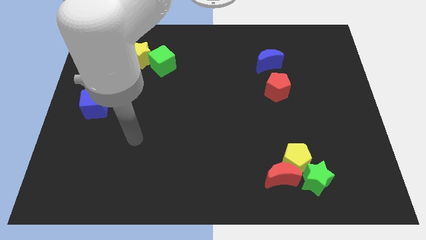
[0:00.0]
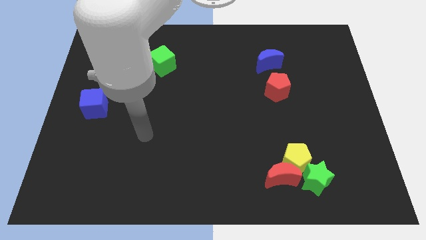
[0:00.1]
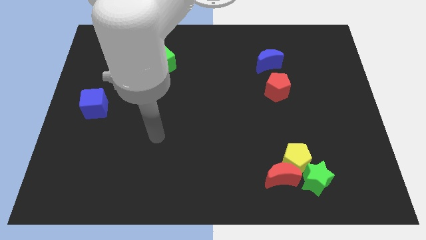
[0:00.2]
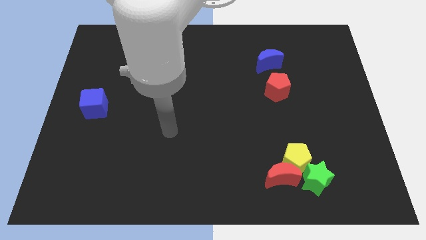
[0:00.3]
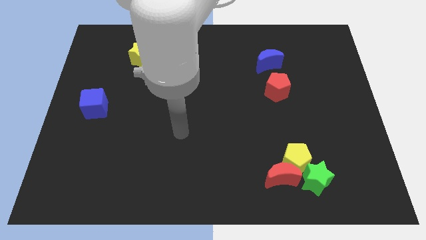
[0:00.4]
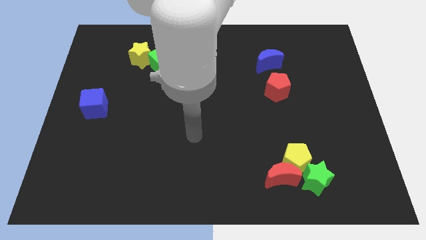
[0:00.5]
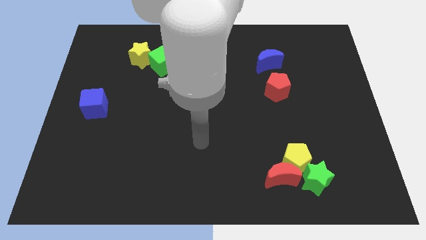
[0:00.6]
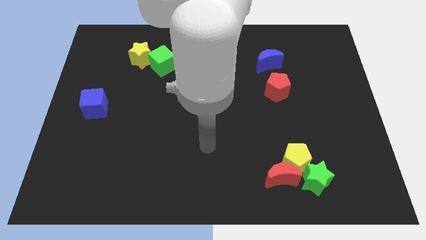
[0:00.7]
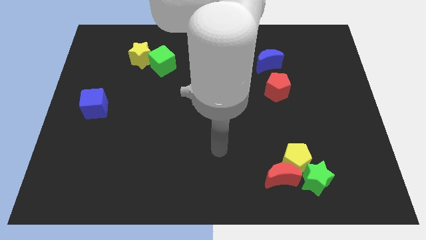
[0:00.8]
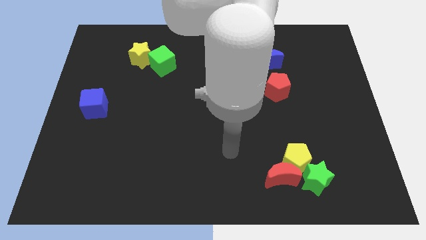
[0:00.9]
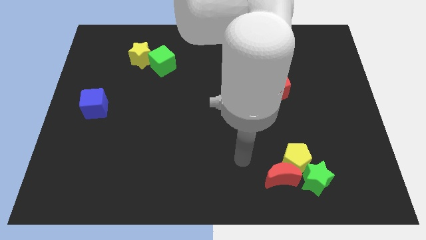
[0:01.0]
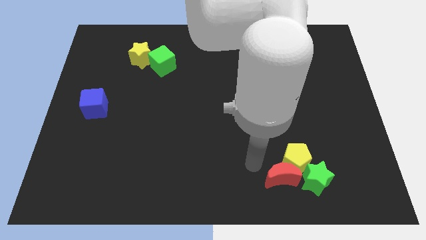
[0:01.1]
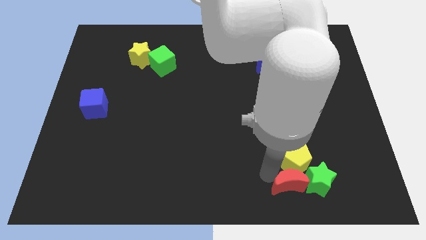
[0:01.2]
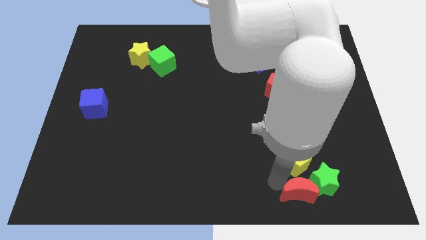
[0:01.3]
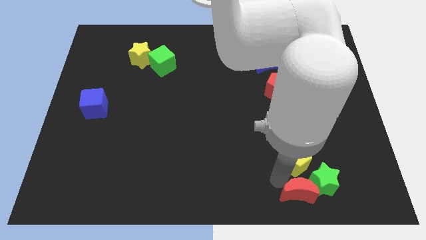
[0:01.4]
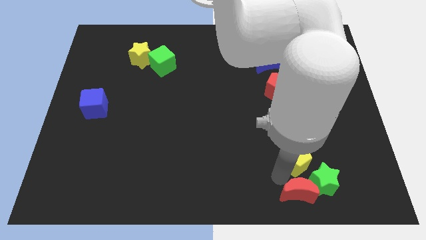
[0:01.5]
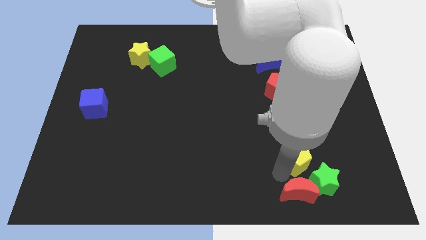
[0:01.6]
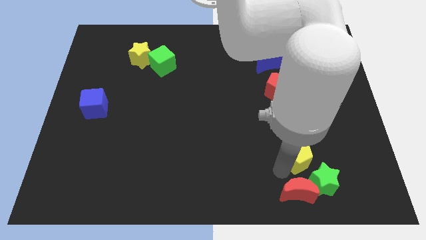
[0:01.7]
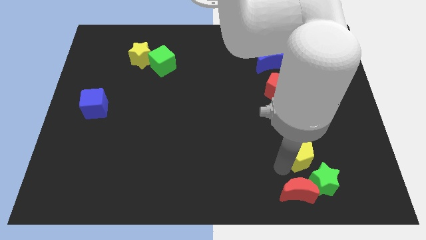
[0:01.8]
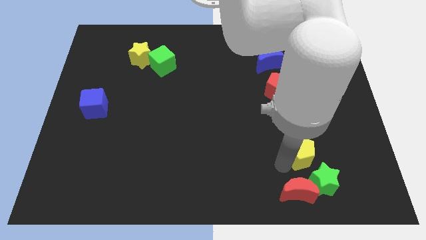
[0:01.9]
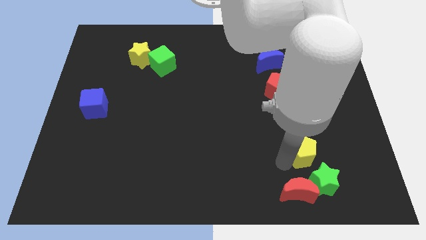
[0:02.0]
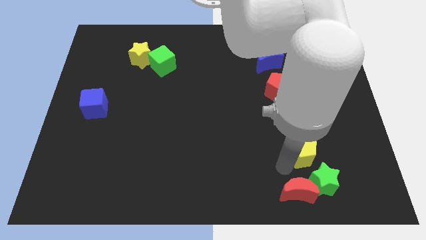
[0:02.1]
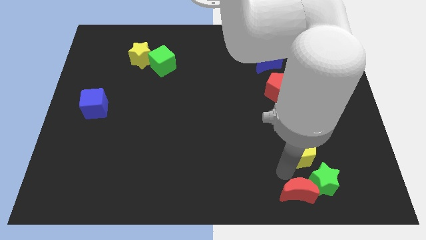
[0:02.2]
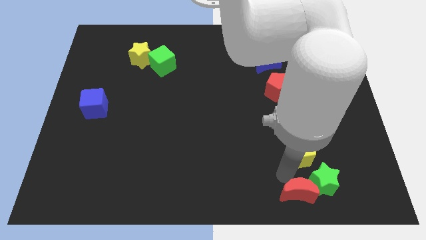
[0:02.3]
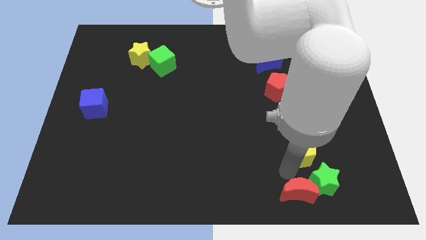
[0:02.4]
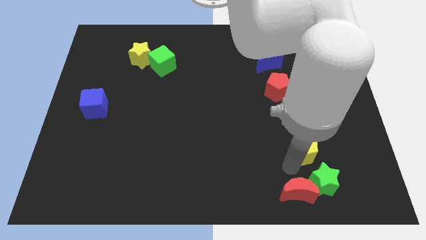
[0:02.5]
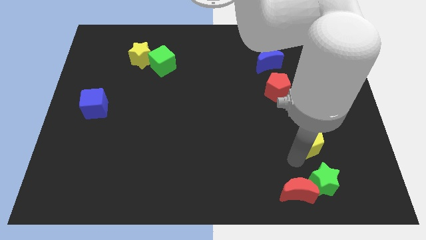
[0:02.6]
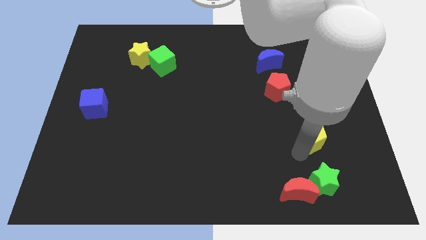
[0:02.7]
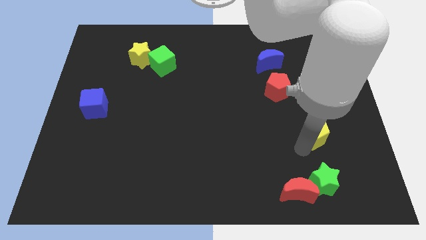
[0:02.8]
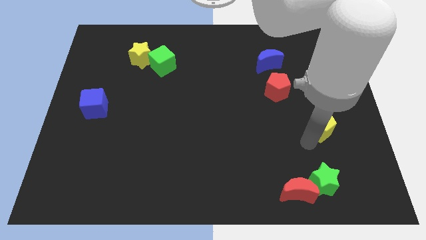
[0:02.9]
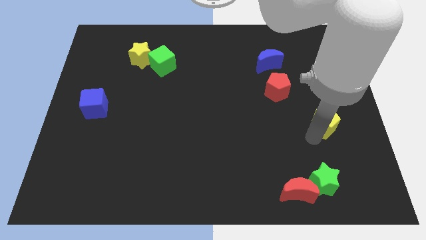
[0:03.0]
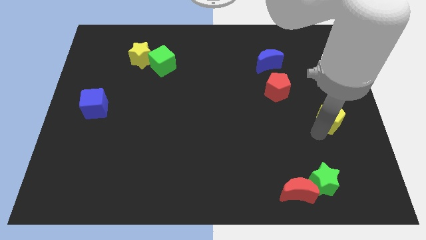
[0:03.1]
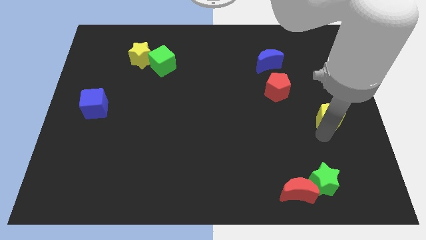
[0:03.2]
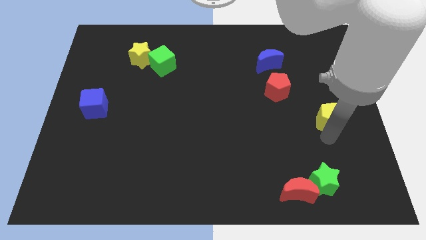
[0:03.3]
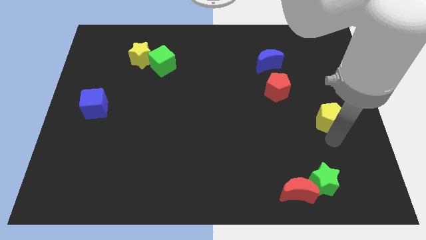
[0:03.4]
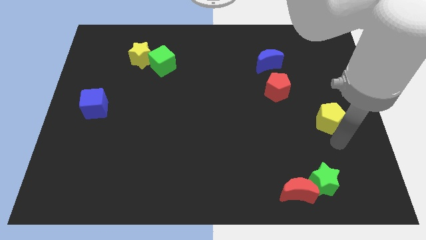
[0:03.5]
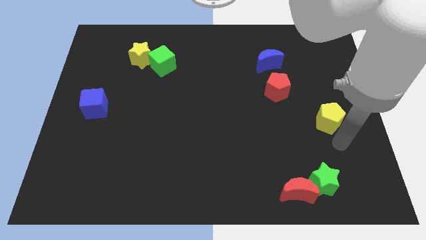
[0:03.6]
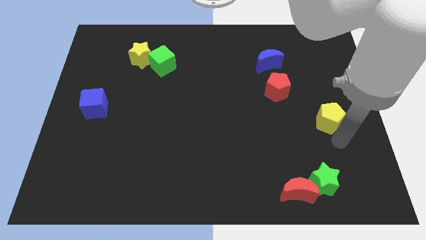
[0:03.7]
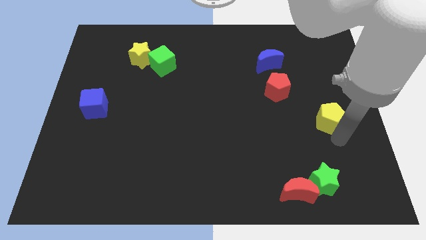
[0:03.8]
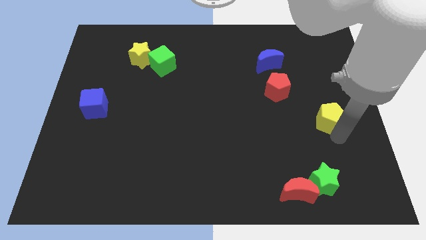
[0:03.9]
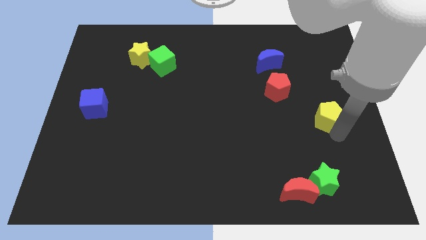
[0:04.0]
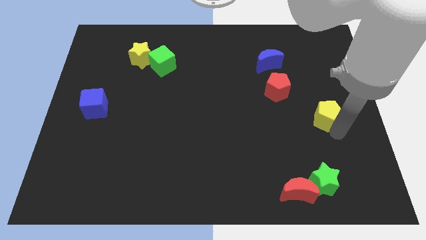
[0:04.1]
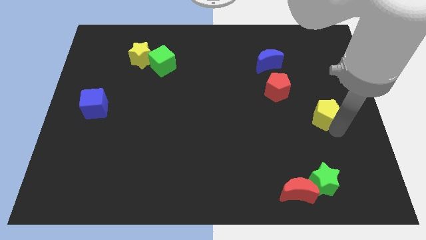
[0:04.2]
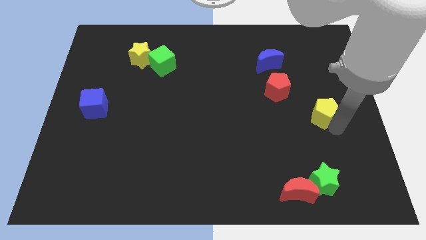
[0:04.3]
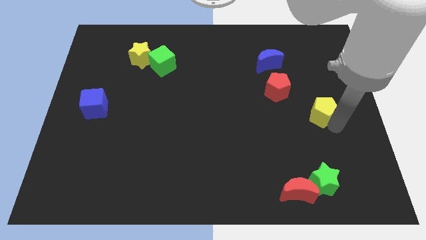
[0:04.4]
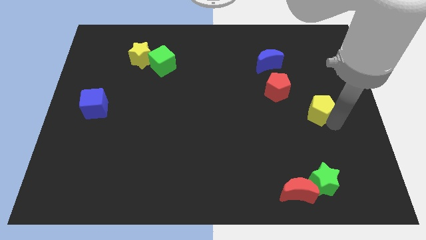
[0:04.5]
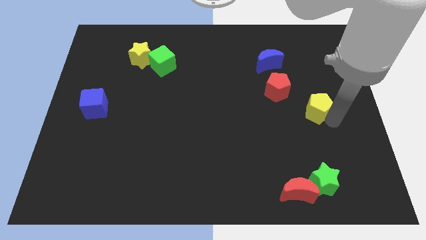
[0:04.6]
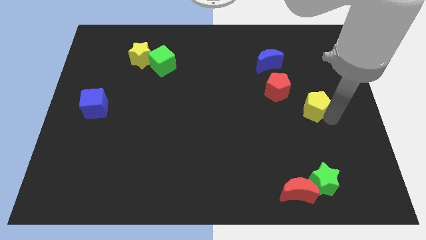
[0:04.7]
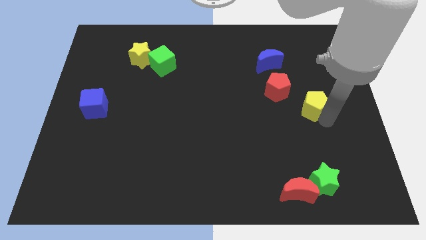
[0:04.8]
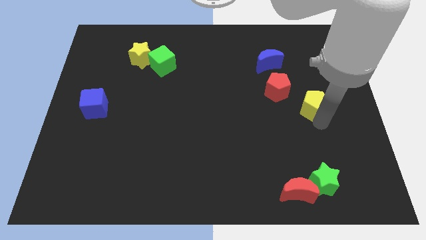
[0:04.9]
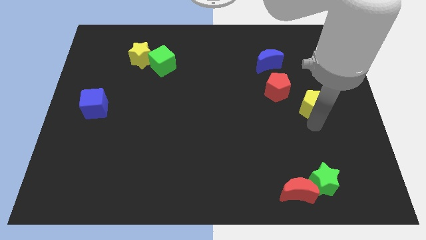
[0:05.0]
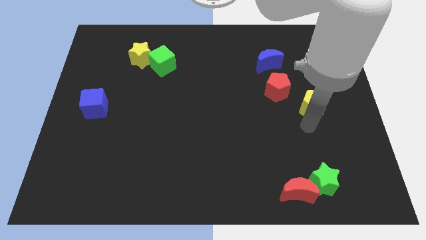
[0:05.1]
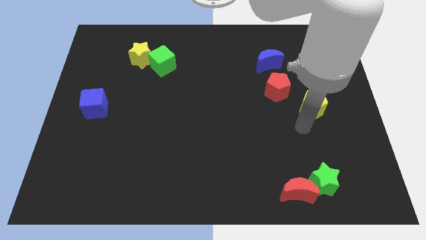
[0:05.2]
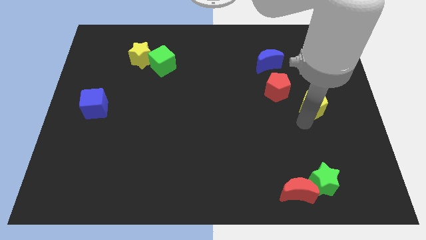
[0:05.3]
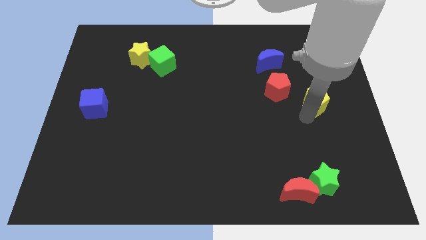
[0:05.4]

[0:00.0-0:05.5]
slide the yellow pentagon to the right side of the red pentagon

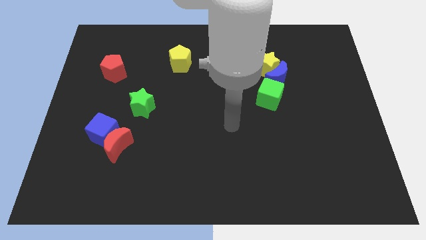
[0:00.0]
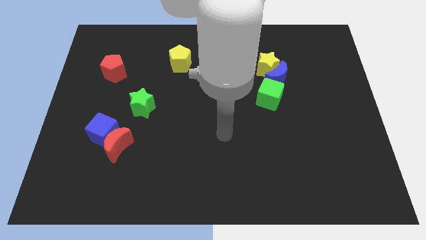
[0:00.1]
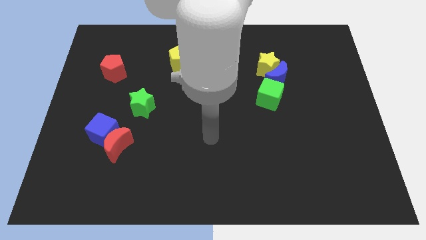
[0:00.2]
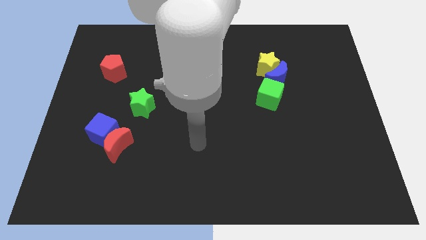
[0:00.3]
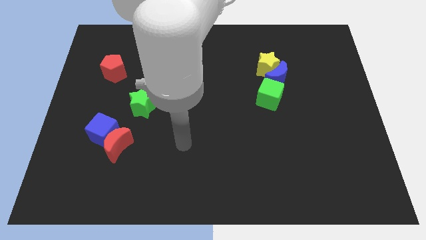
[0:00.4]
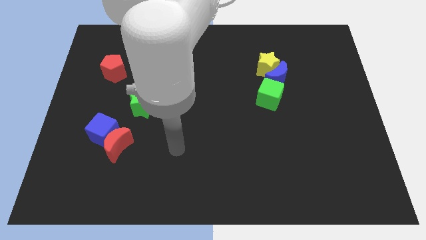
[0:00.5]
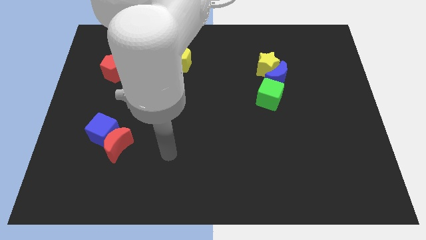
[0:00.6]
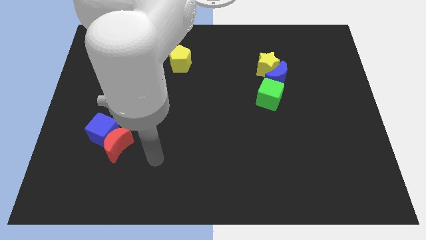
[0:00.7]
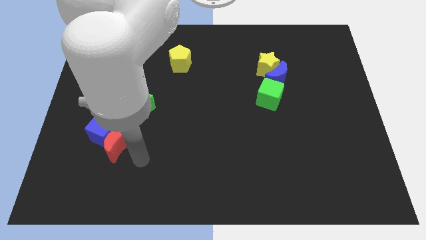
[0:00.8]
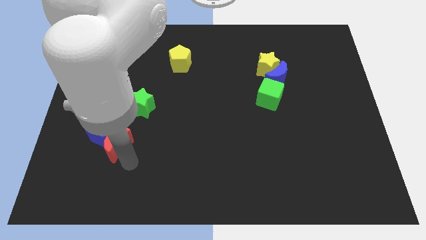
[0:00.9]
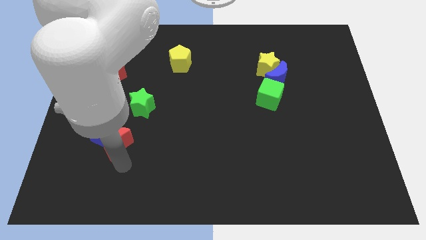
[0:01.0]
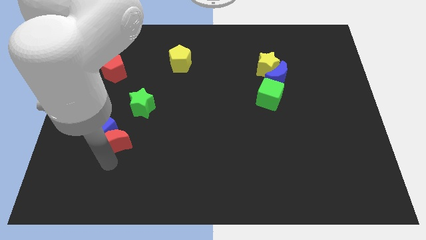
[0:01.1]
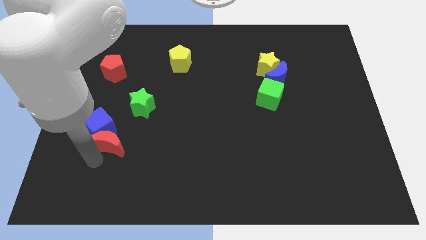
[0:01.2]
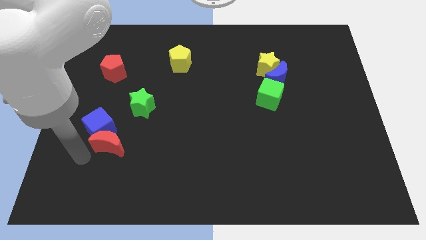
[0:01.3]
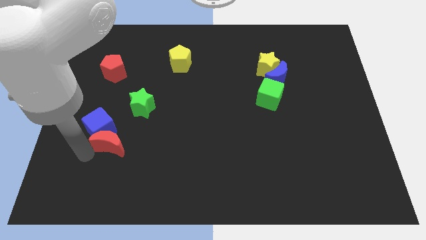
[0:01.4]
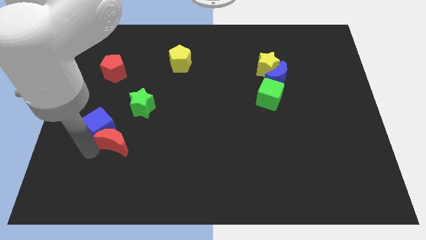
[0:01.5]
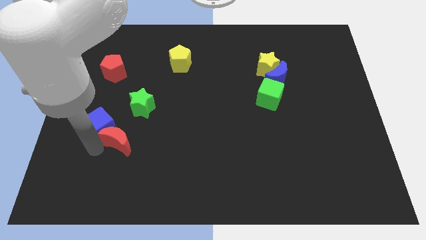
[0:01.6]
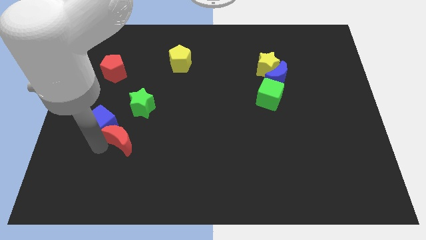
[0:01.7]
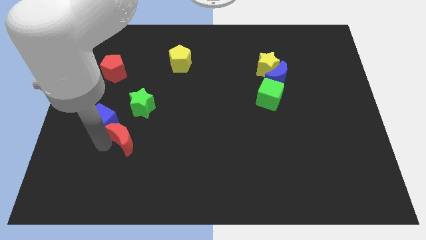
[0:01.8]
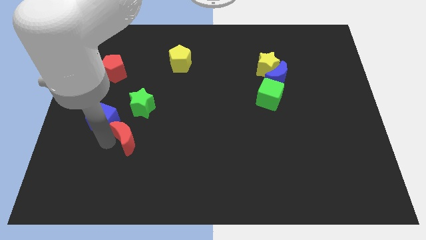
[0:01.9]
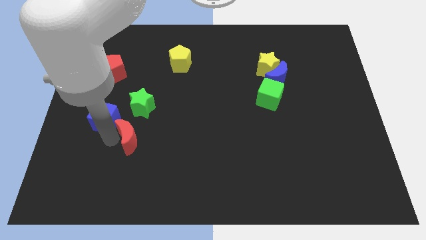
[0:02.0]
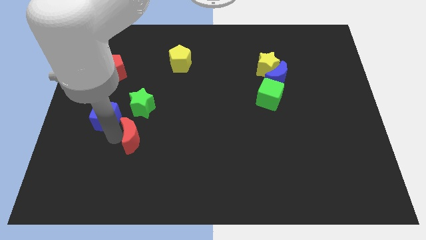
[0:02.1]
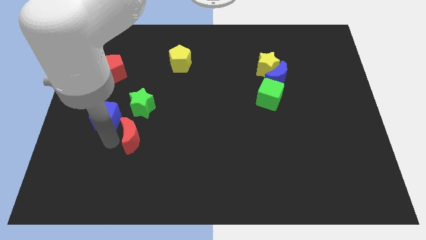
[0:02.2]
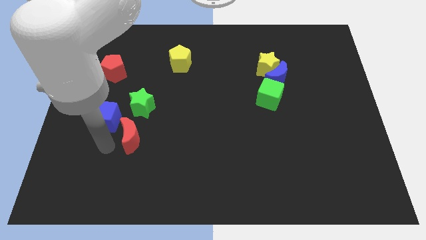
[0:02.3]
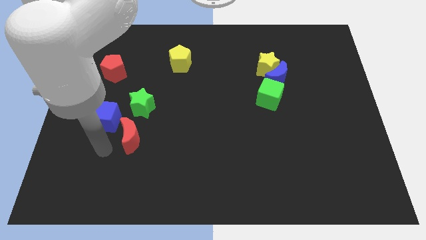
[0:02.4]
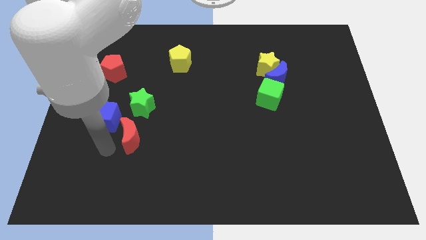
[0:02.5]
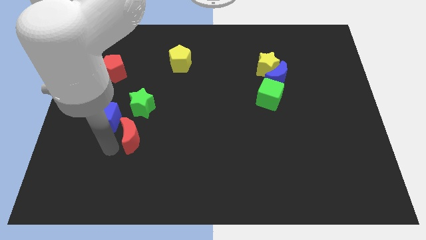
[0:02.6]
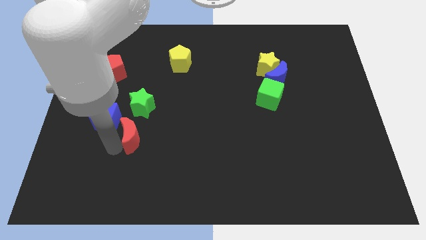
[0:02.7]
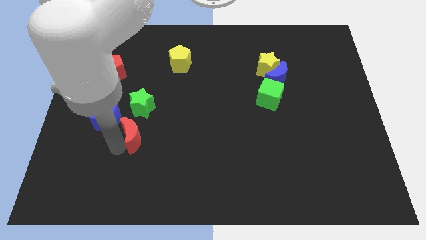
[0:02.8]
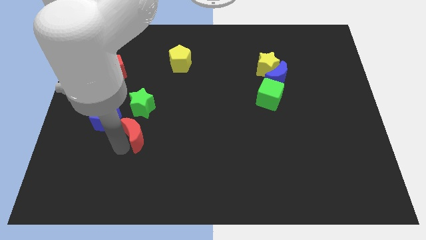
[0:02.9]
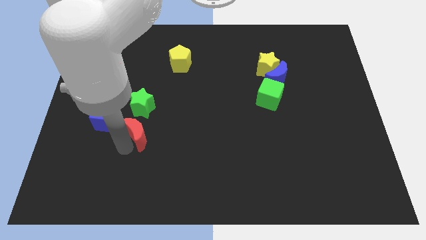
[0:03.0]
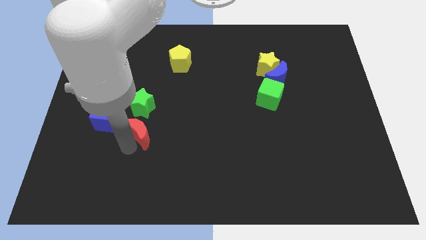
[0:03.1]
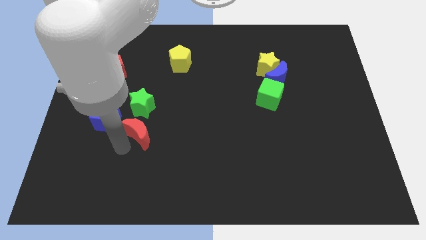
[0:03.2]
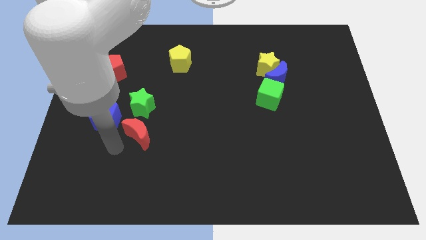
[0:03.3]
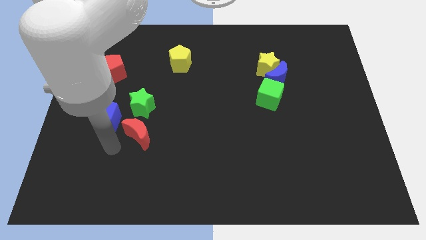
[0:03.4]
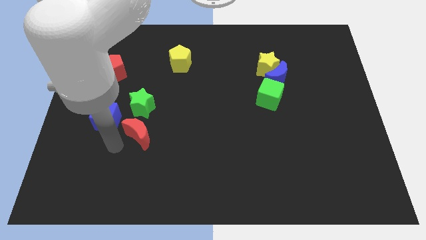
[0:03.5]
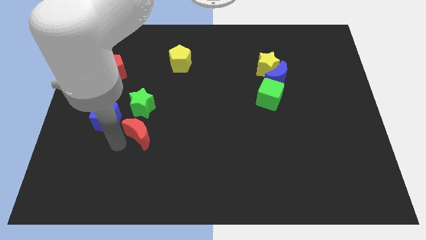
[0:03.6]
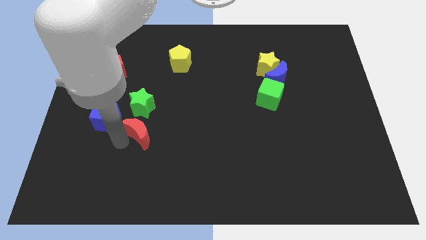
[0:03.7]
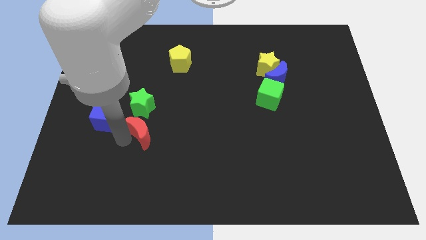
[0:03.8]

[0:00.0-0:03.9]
slide the red moon to the bottom right side of the green star
